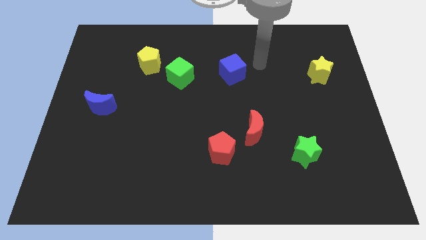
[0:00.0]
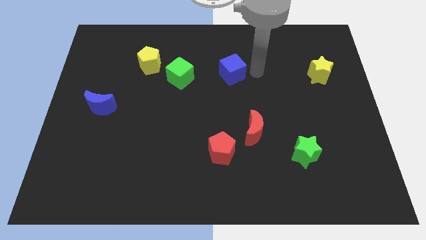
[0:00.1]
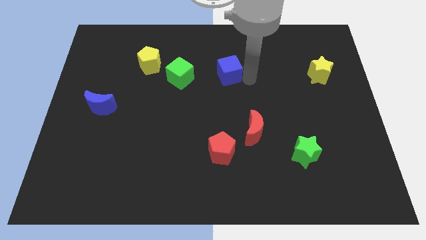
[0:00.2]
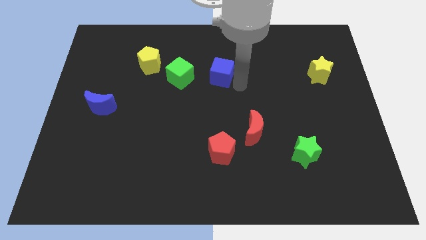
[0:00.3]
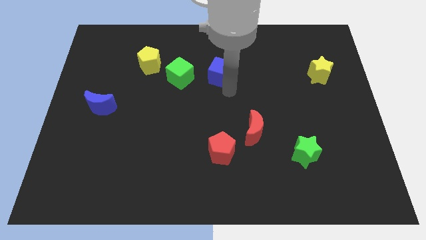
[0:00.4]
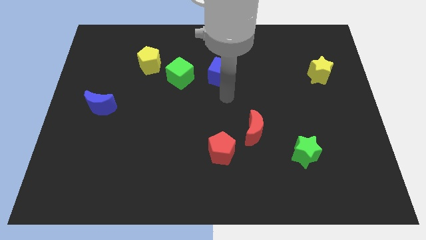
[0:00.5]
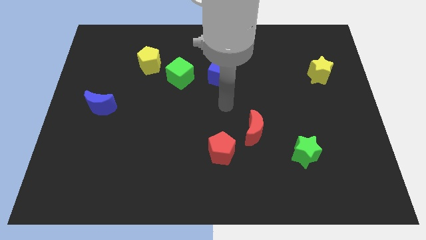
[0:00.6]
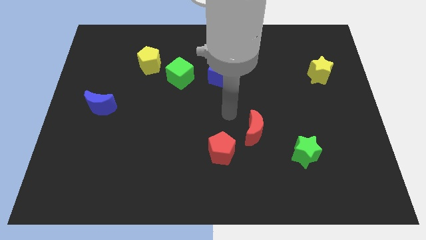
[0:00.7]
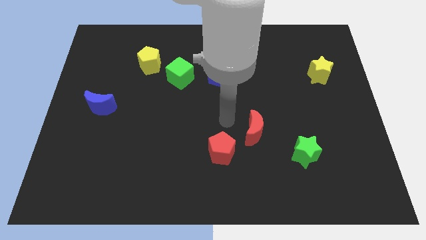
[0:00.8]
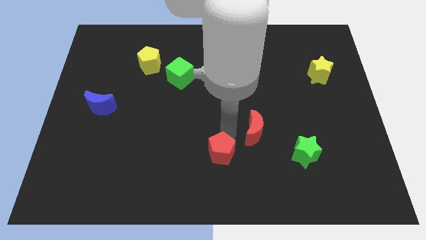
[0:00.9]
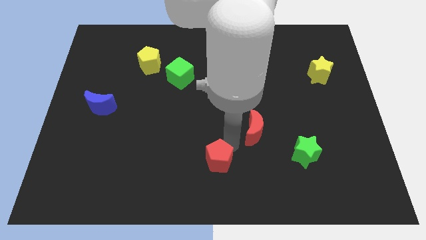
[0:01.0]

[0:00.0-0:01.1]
move the red moon away from the red pentagon

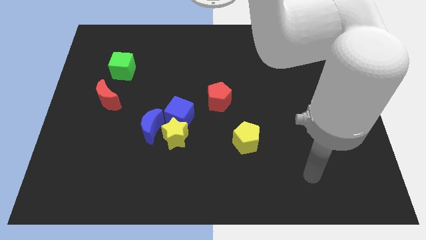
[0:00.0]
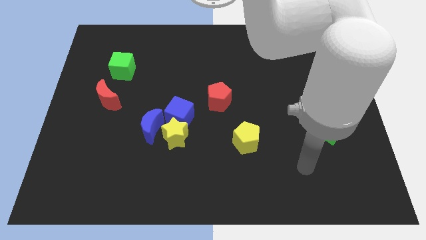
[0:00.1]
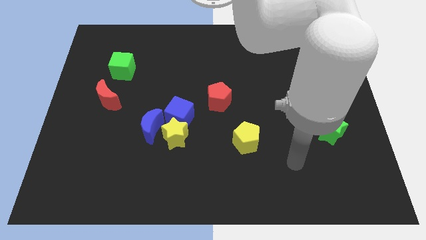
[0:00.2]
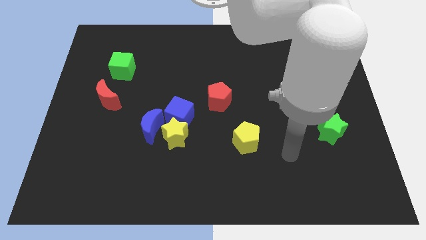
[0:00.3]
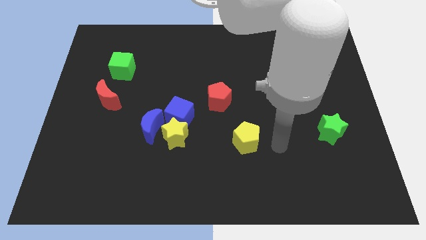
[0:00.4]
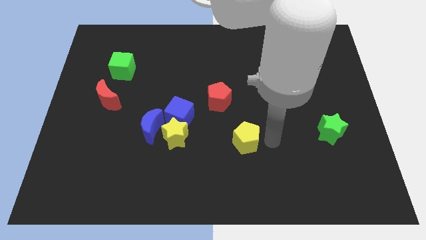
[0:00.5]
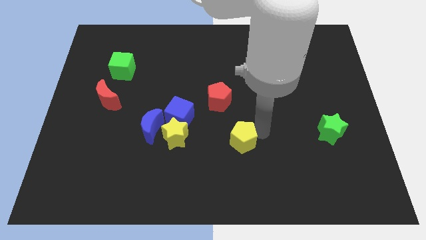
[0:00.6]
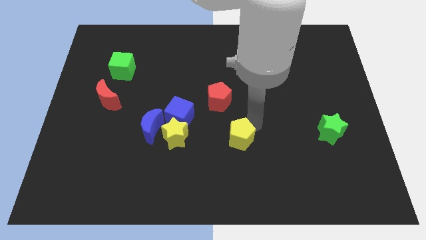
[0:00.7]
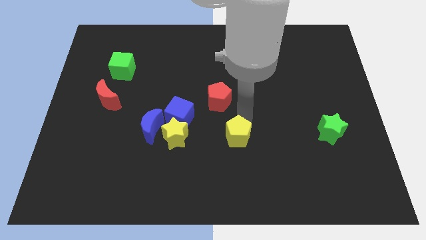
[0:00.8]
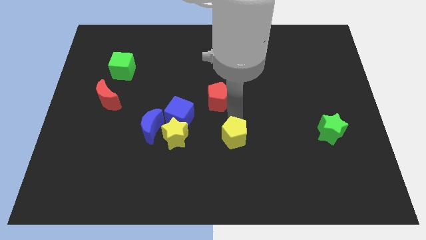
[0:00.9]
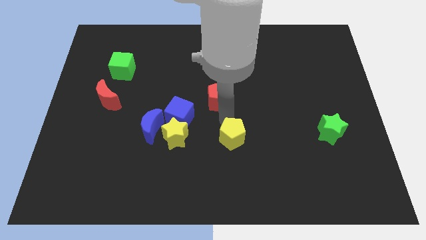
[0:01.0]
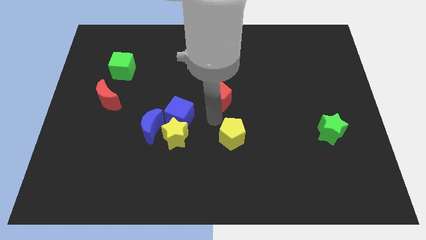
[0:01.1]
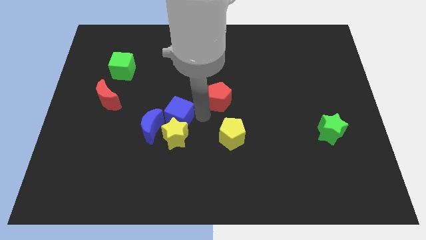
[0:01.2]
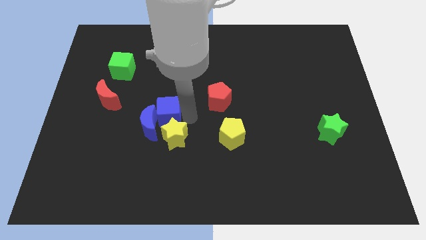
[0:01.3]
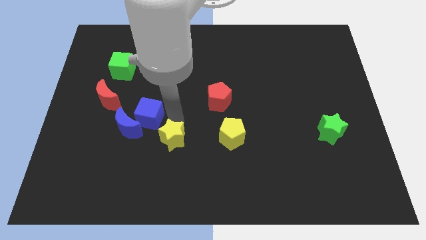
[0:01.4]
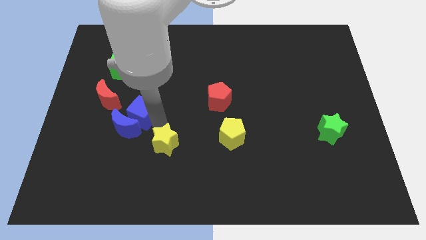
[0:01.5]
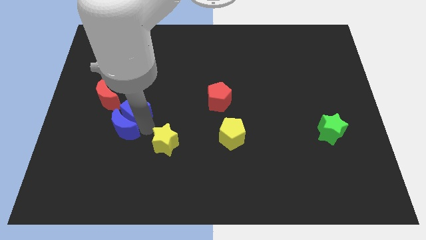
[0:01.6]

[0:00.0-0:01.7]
move the yellow star away from the blue cube and blue moon

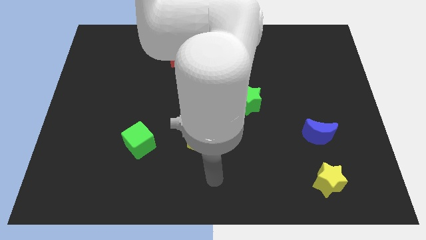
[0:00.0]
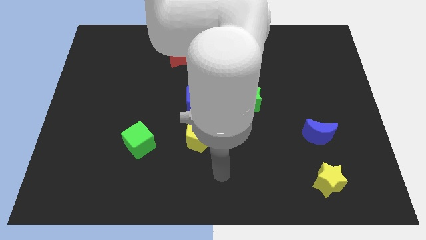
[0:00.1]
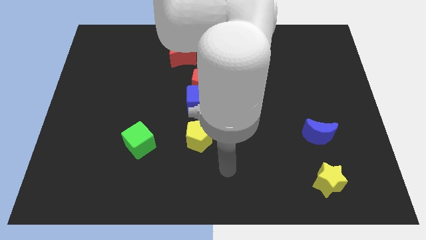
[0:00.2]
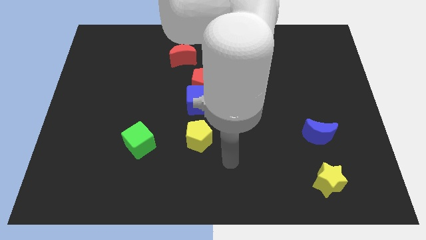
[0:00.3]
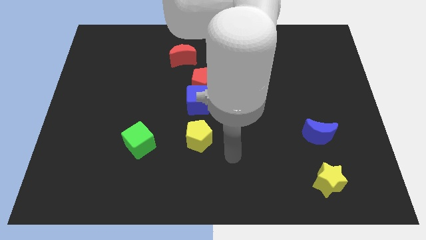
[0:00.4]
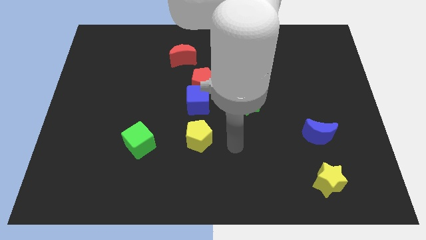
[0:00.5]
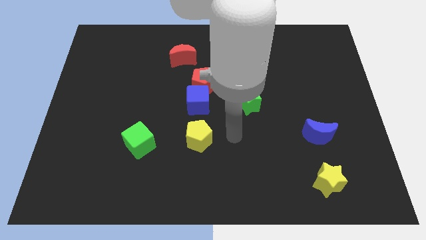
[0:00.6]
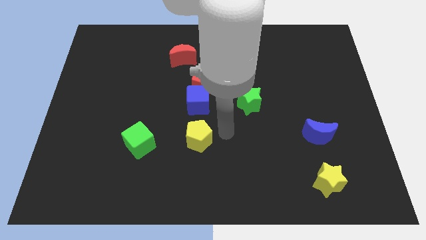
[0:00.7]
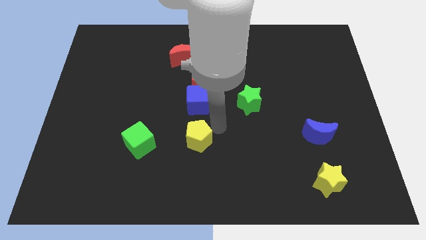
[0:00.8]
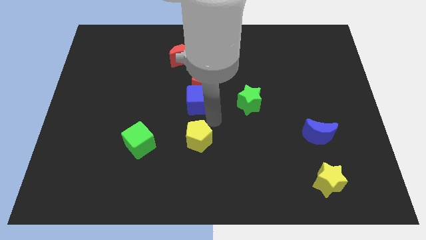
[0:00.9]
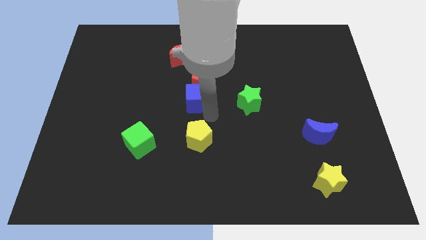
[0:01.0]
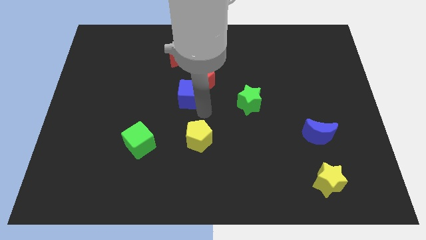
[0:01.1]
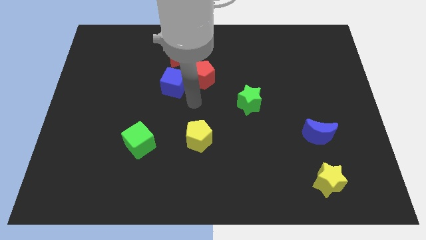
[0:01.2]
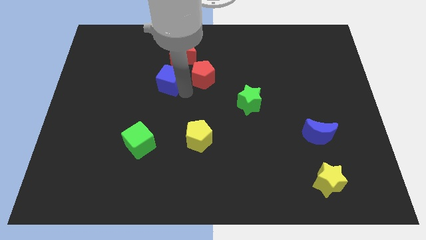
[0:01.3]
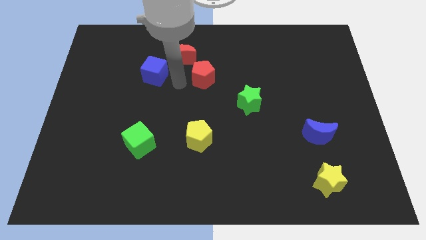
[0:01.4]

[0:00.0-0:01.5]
separate the red pentagon from the blue cube

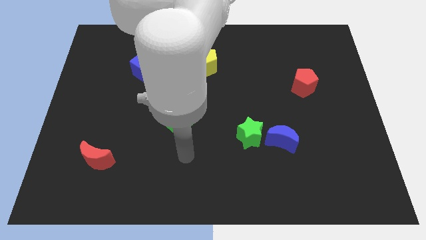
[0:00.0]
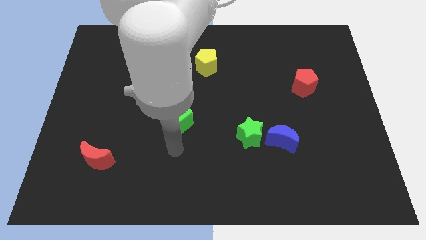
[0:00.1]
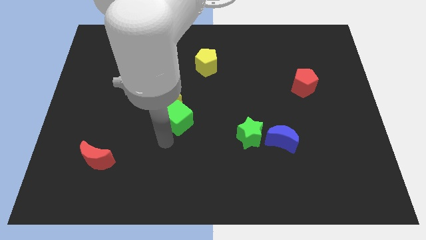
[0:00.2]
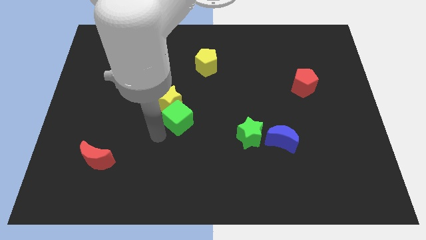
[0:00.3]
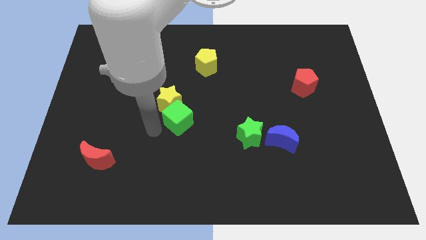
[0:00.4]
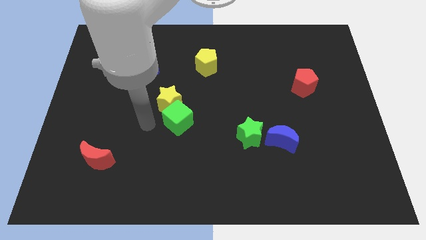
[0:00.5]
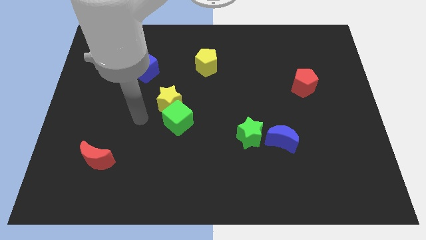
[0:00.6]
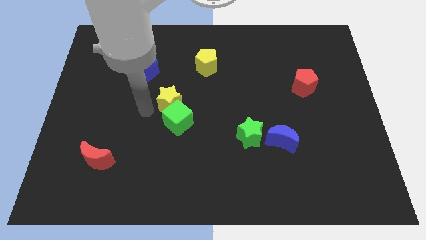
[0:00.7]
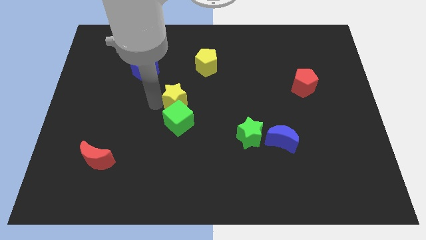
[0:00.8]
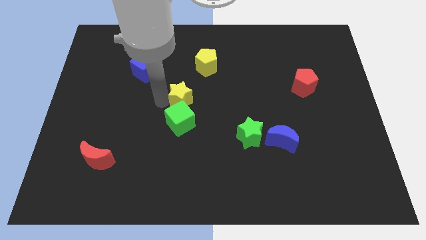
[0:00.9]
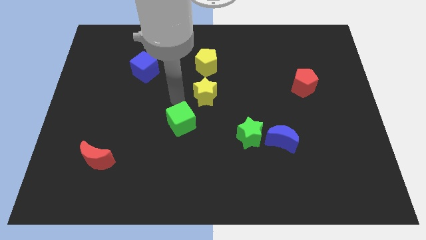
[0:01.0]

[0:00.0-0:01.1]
separate the green cube from the yellow star

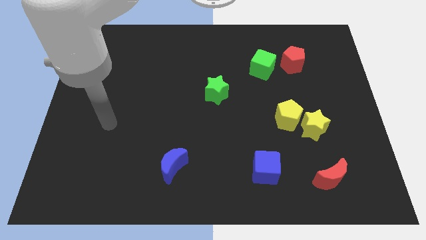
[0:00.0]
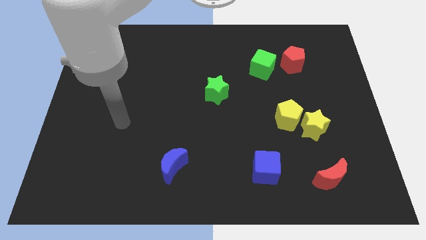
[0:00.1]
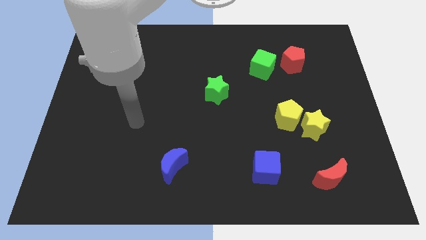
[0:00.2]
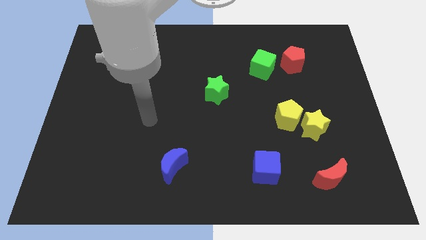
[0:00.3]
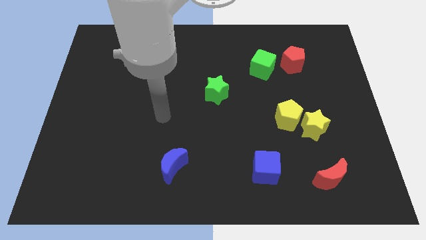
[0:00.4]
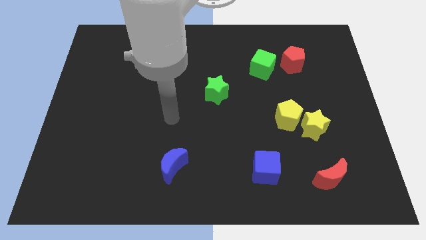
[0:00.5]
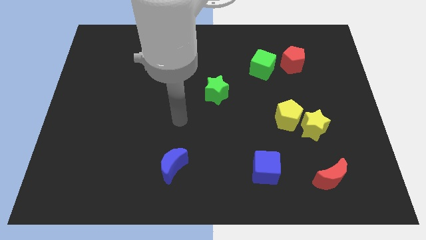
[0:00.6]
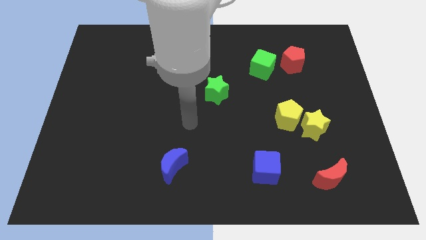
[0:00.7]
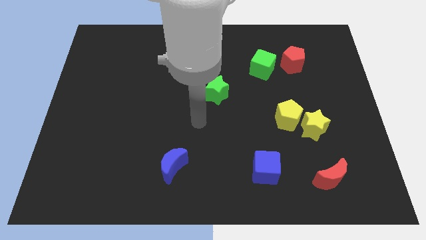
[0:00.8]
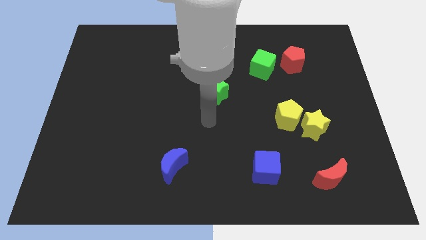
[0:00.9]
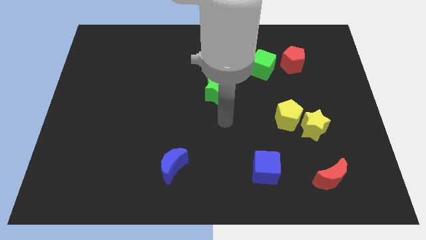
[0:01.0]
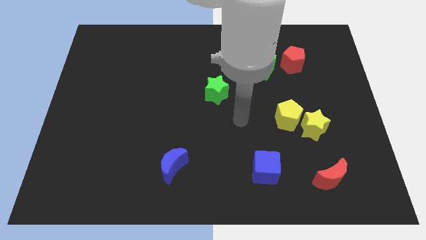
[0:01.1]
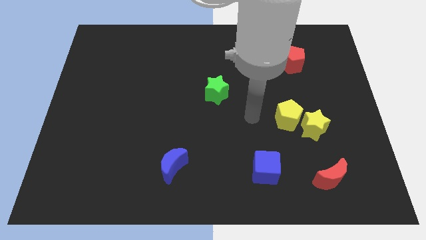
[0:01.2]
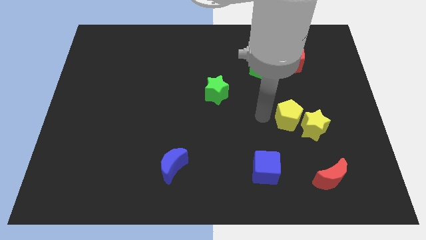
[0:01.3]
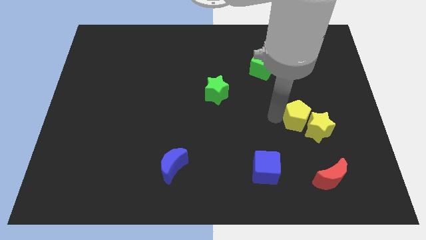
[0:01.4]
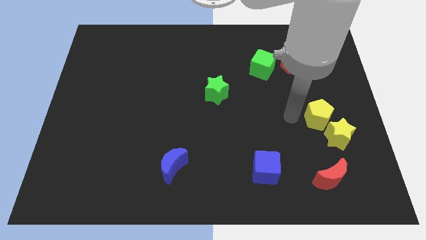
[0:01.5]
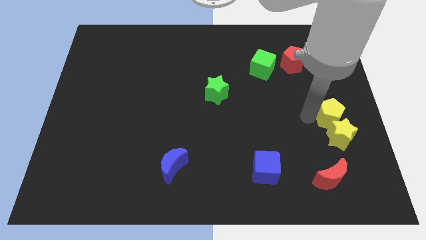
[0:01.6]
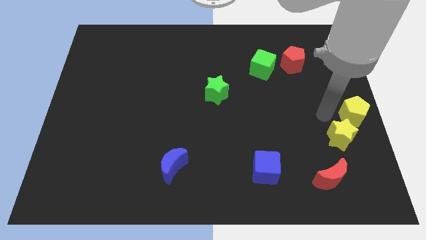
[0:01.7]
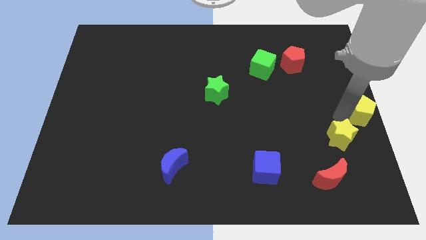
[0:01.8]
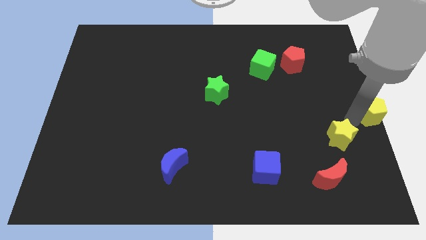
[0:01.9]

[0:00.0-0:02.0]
pull the yellow star apart from the yellow pentagon

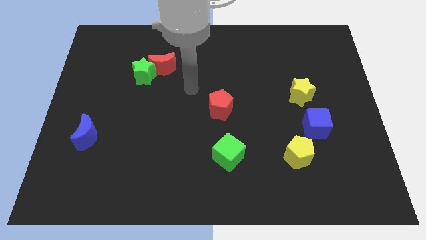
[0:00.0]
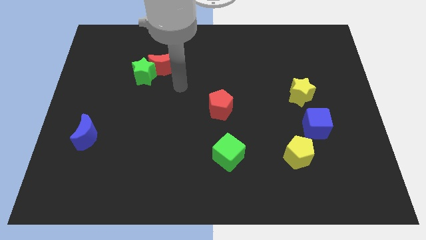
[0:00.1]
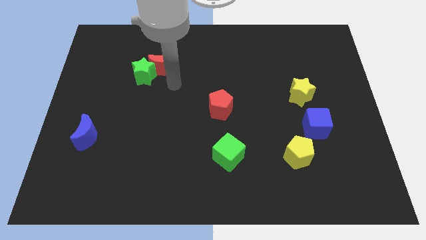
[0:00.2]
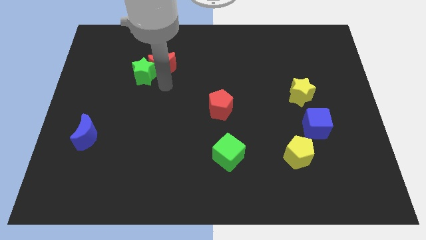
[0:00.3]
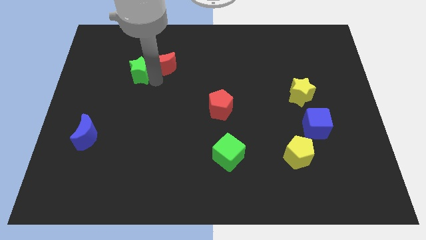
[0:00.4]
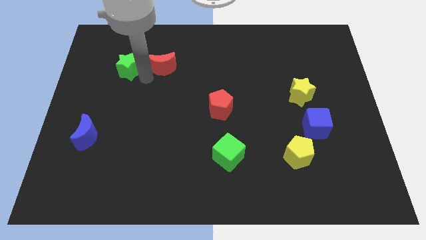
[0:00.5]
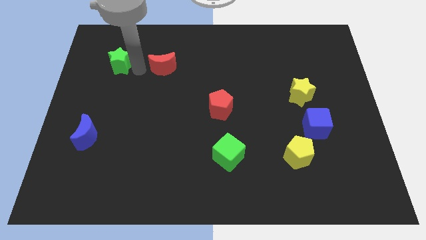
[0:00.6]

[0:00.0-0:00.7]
move the red moon away from the green star

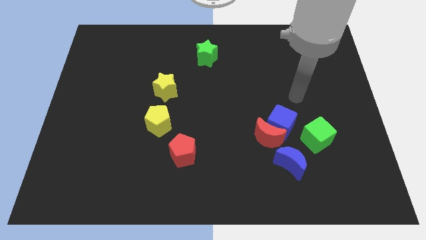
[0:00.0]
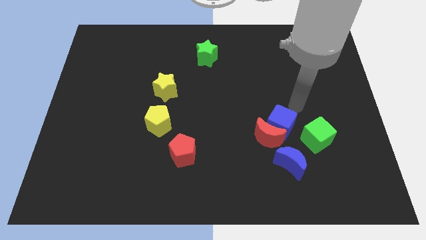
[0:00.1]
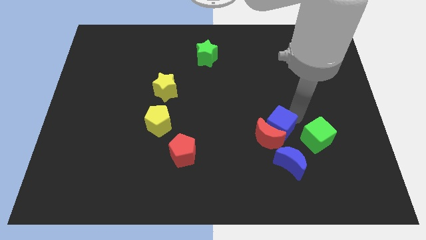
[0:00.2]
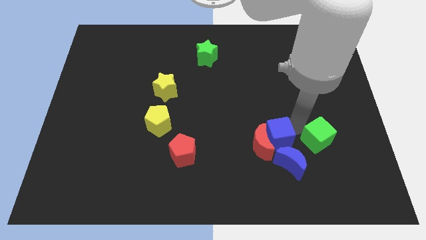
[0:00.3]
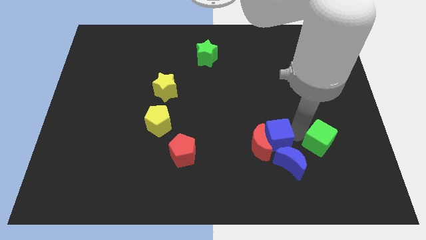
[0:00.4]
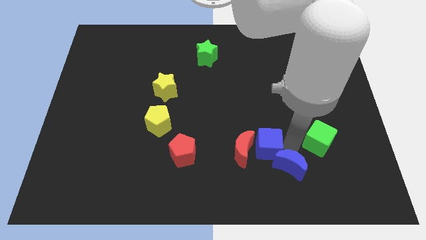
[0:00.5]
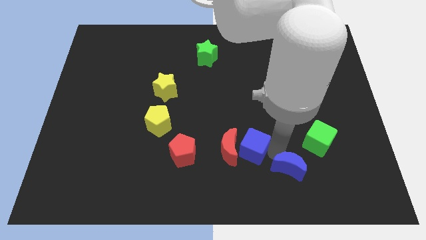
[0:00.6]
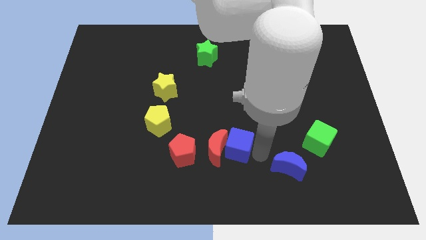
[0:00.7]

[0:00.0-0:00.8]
move the red moon away from the blue cube and blue moon

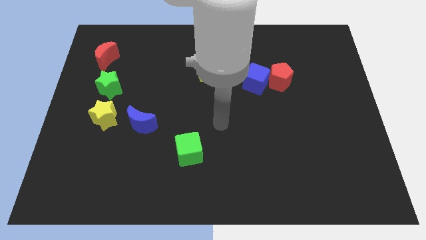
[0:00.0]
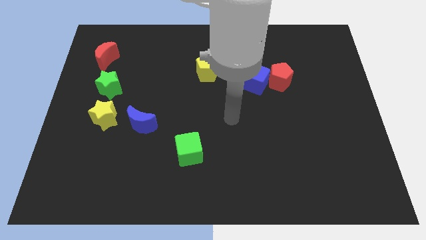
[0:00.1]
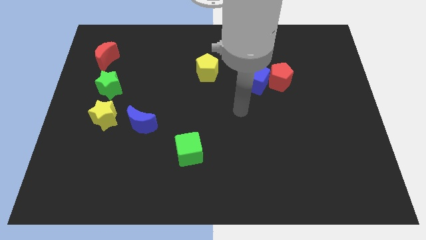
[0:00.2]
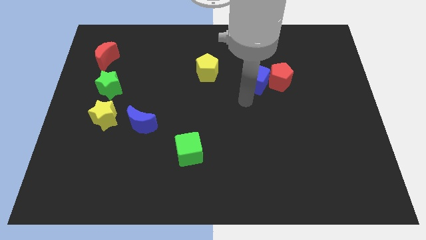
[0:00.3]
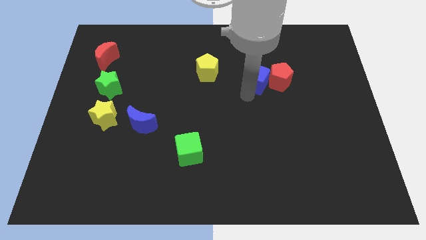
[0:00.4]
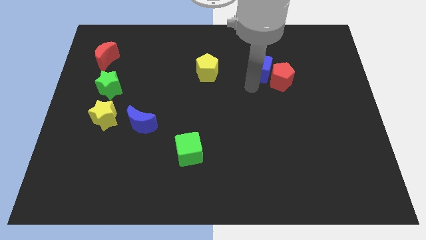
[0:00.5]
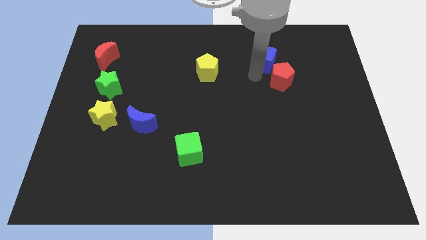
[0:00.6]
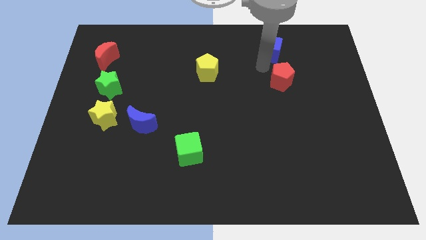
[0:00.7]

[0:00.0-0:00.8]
move the red pentagon away from the blue cube
